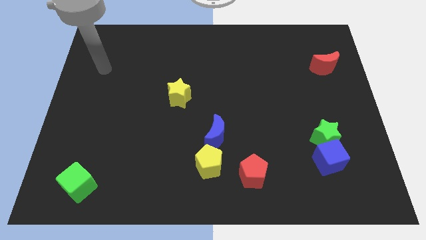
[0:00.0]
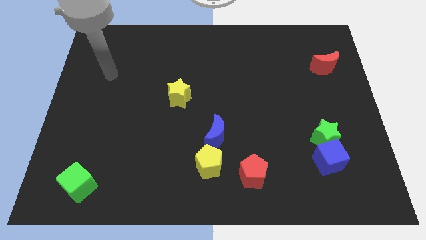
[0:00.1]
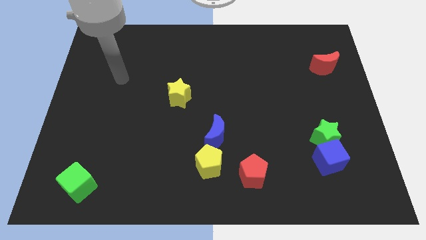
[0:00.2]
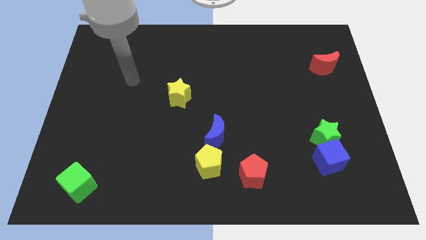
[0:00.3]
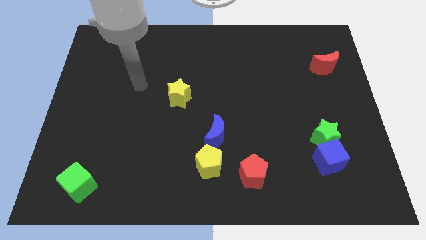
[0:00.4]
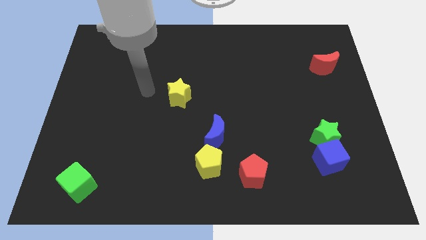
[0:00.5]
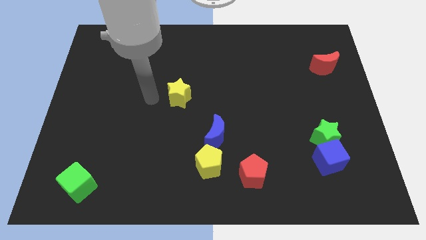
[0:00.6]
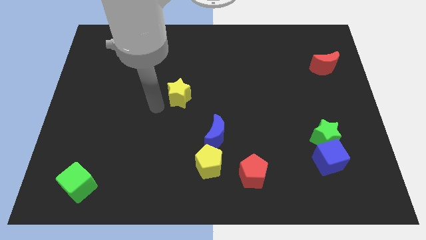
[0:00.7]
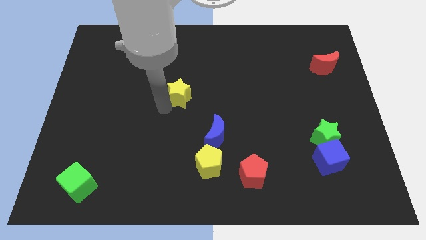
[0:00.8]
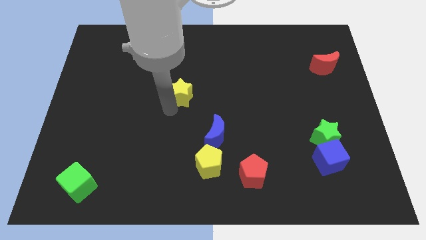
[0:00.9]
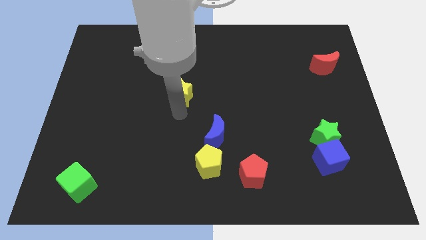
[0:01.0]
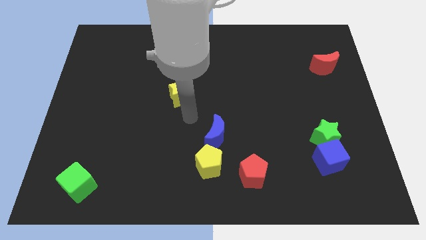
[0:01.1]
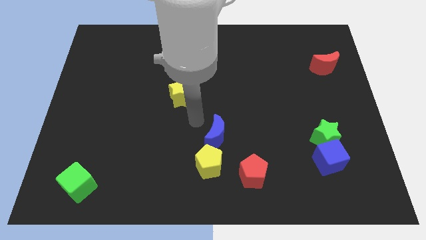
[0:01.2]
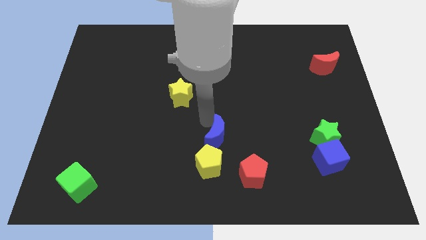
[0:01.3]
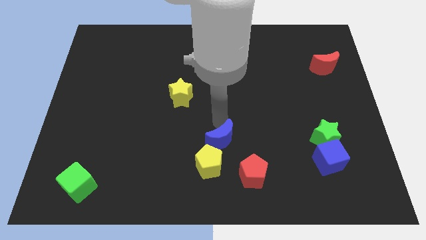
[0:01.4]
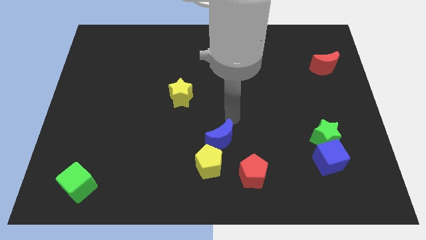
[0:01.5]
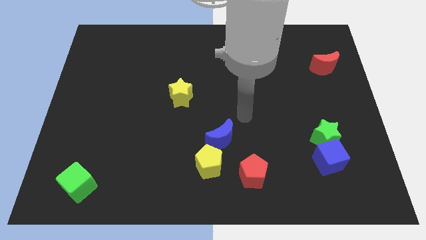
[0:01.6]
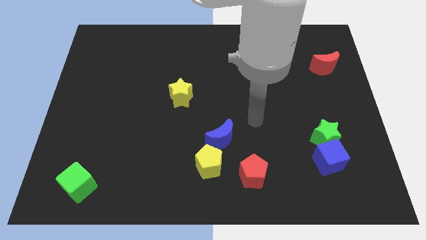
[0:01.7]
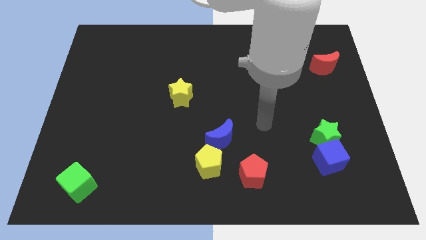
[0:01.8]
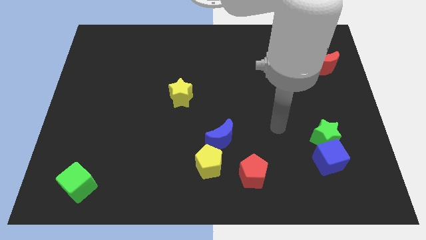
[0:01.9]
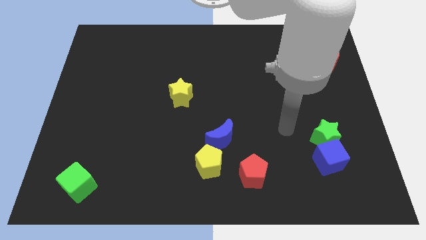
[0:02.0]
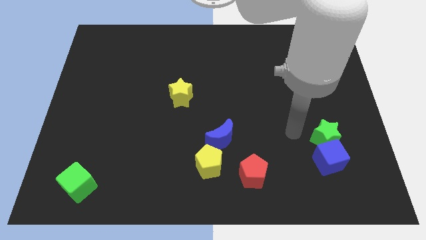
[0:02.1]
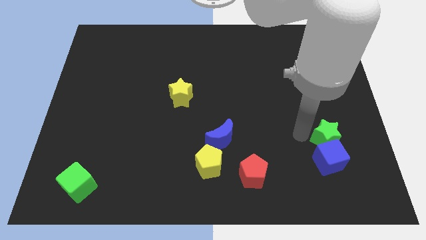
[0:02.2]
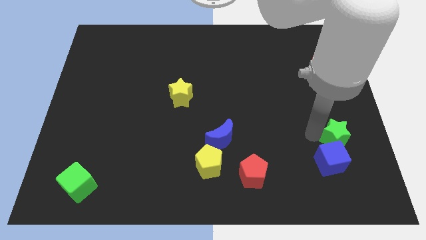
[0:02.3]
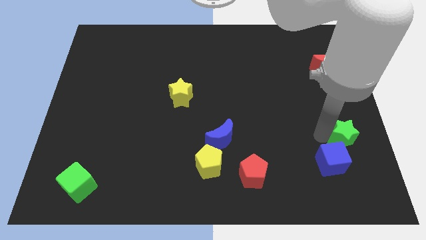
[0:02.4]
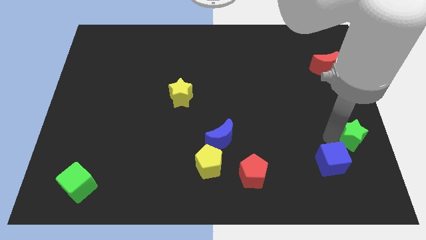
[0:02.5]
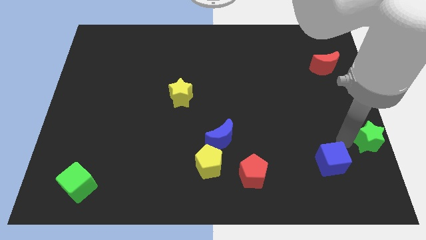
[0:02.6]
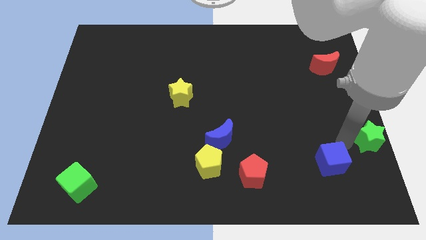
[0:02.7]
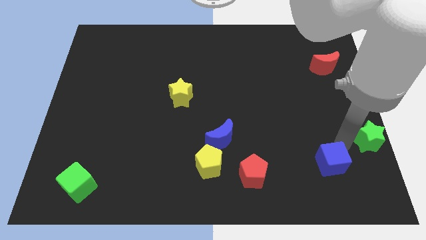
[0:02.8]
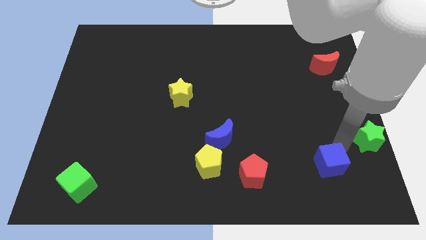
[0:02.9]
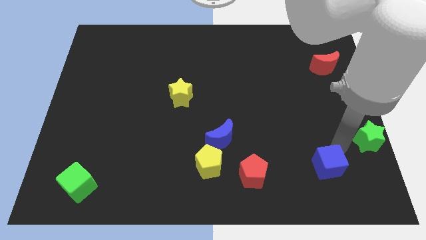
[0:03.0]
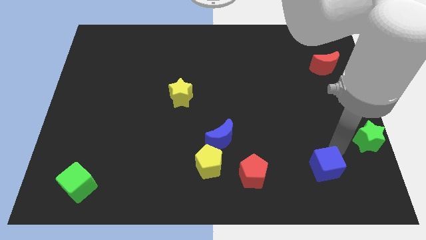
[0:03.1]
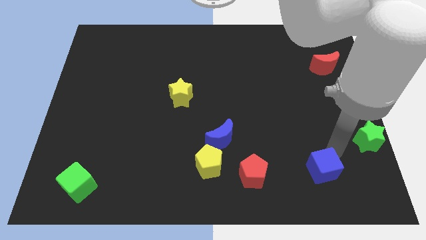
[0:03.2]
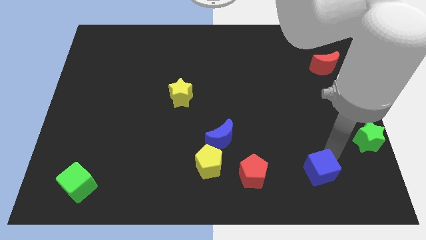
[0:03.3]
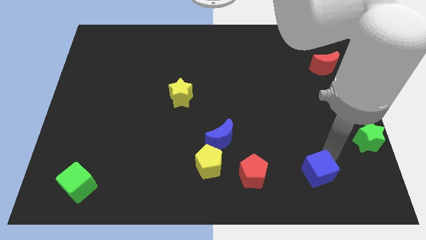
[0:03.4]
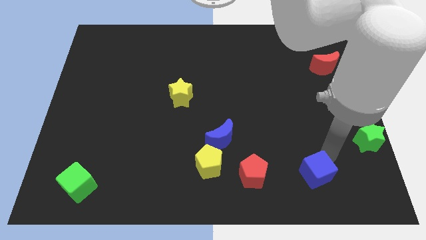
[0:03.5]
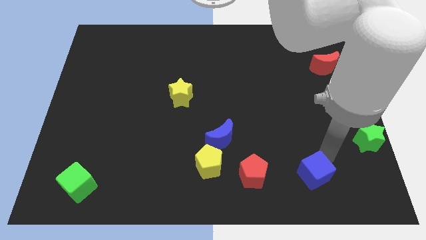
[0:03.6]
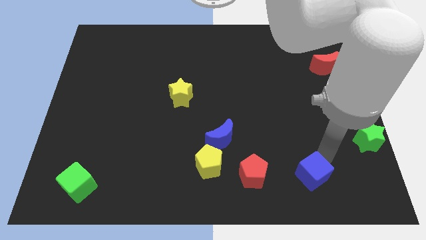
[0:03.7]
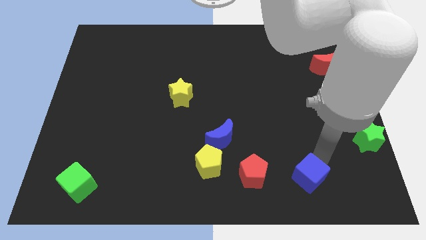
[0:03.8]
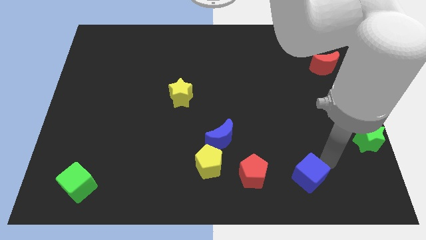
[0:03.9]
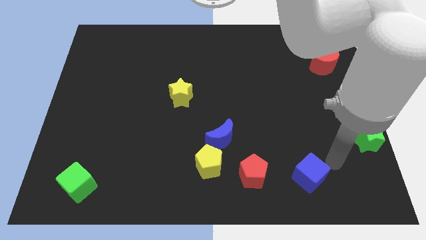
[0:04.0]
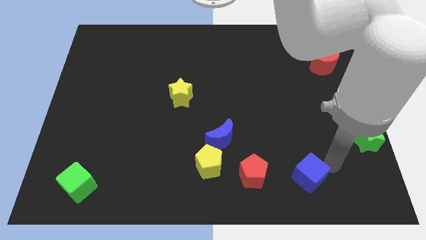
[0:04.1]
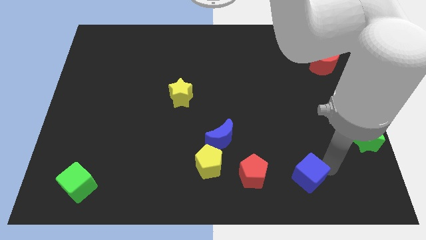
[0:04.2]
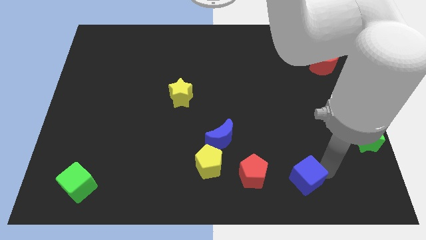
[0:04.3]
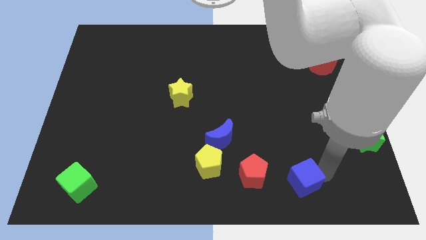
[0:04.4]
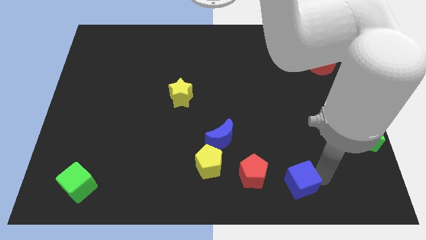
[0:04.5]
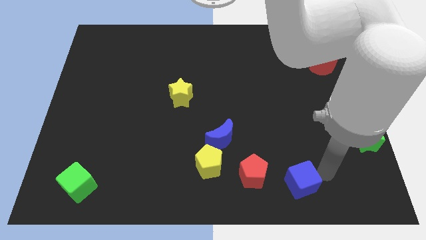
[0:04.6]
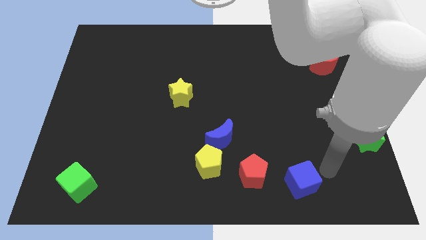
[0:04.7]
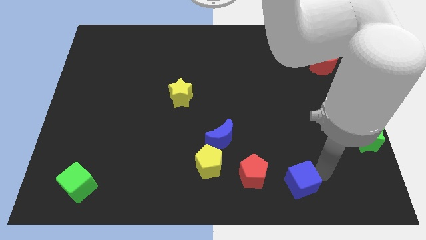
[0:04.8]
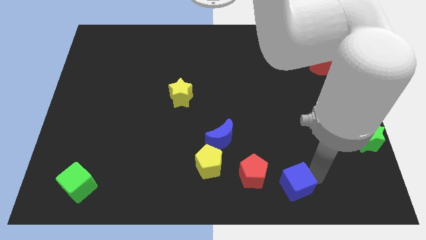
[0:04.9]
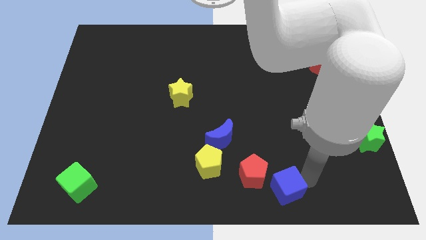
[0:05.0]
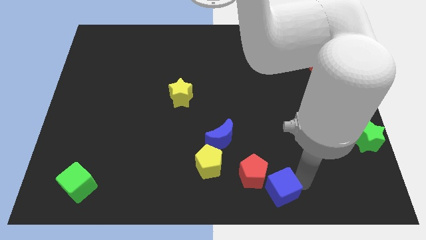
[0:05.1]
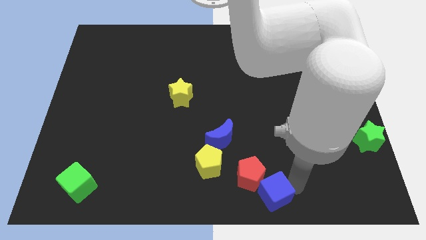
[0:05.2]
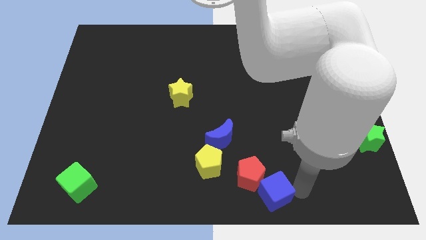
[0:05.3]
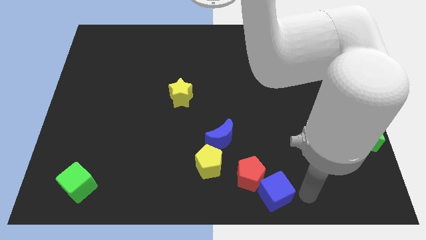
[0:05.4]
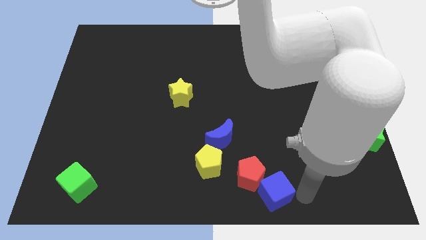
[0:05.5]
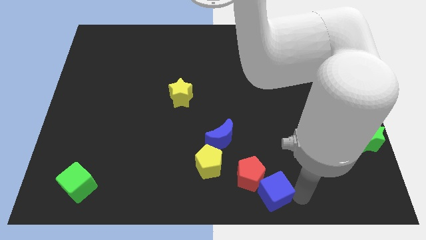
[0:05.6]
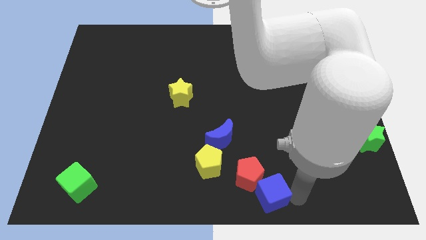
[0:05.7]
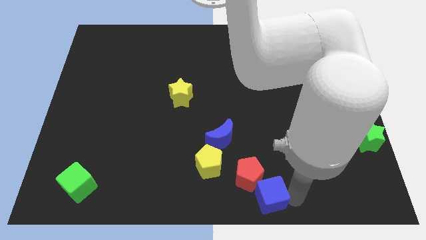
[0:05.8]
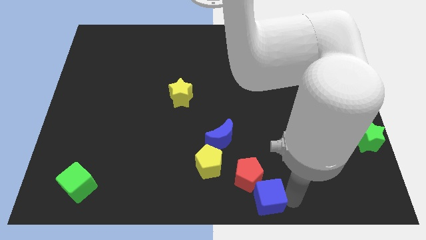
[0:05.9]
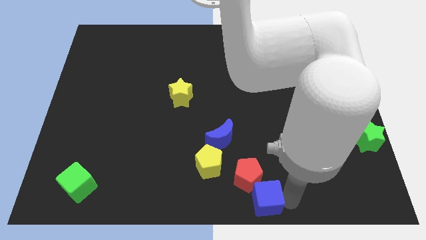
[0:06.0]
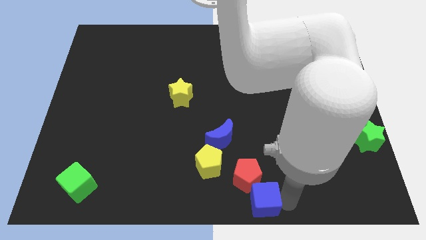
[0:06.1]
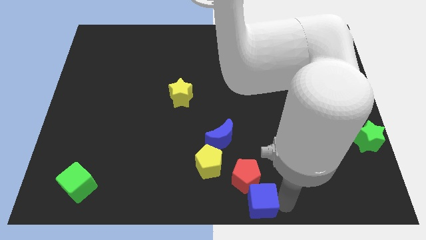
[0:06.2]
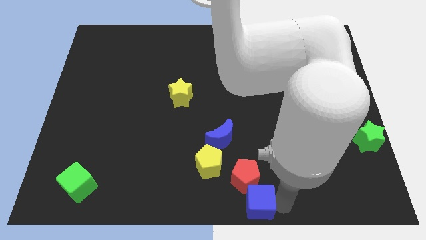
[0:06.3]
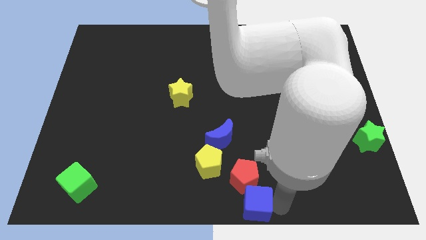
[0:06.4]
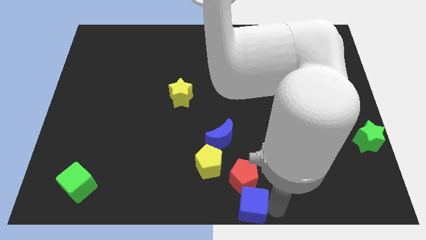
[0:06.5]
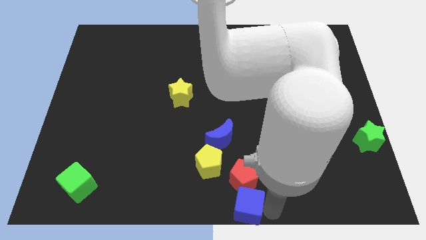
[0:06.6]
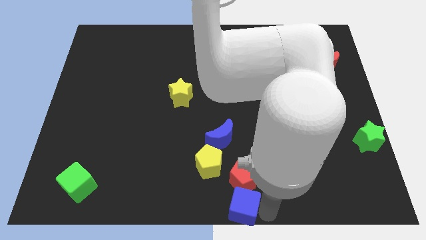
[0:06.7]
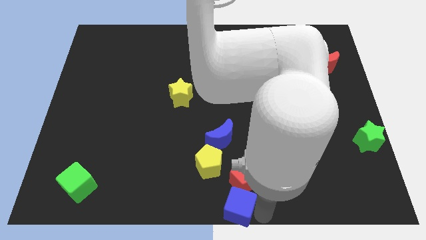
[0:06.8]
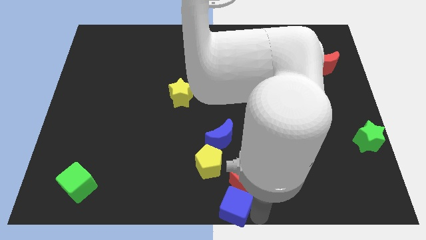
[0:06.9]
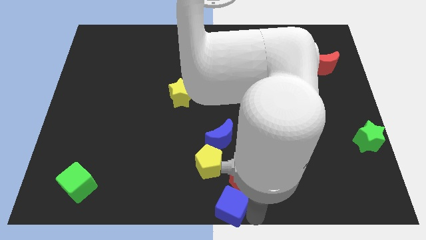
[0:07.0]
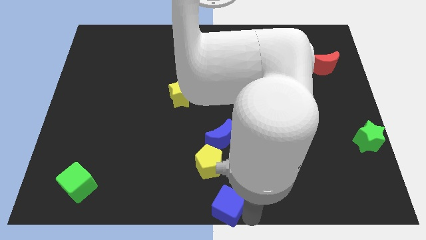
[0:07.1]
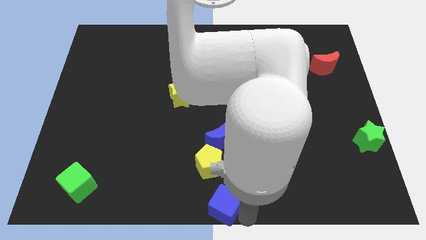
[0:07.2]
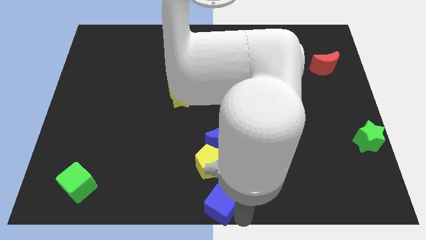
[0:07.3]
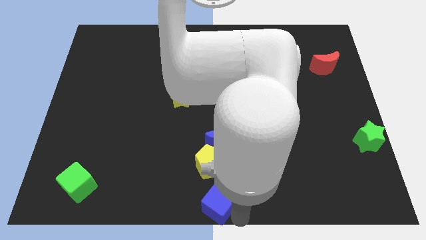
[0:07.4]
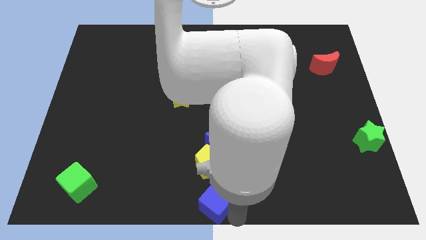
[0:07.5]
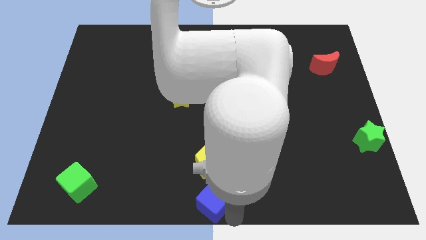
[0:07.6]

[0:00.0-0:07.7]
slide the blue cube left

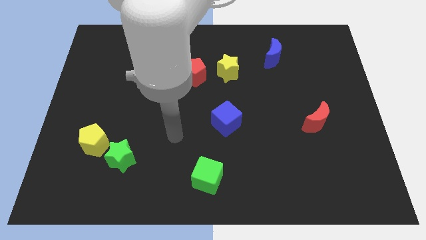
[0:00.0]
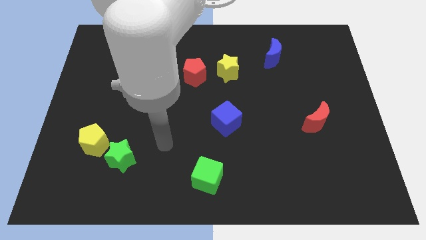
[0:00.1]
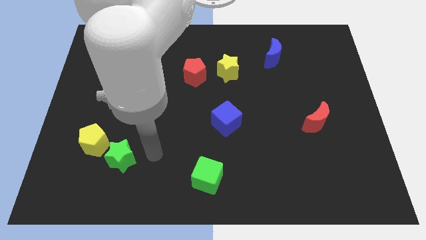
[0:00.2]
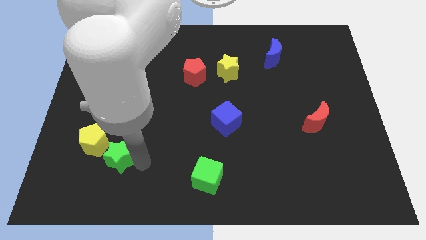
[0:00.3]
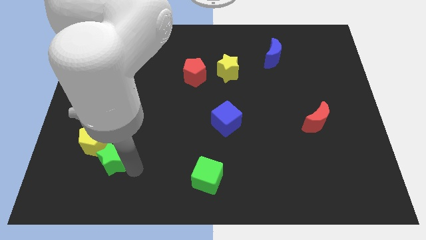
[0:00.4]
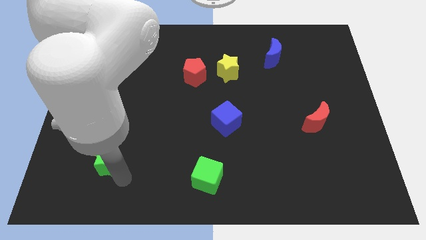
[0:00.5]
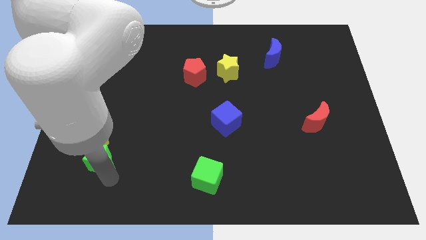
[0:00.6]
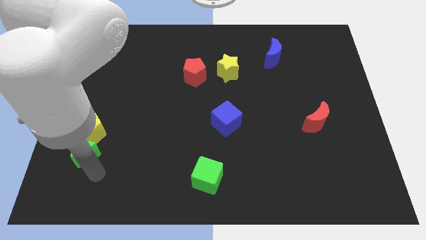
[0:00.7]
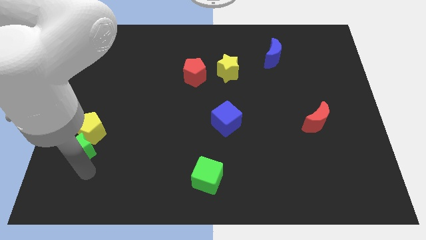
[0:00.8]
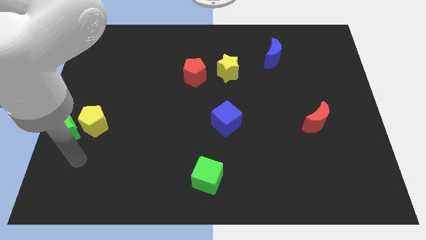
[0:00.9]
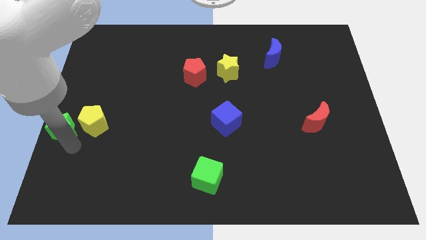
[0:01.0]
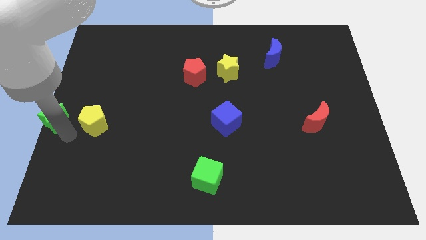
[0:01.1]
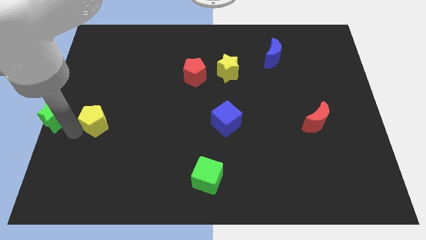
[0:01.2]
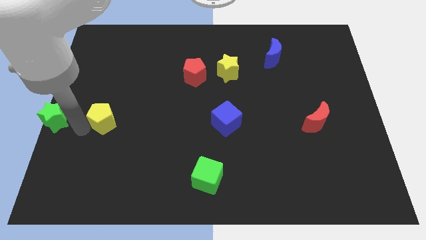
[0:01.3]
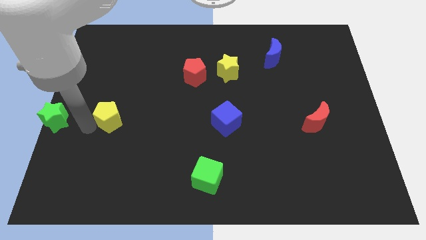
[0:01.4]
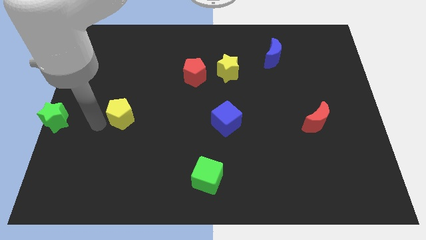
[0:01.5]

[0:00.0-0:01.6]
push the yellow pentagon slightly diagonally up and right
